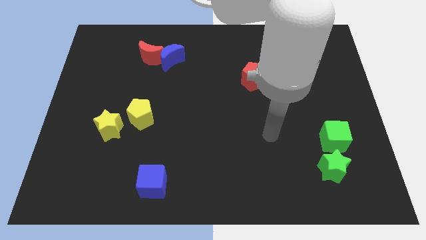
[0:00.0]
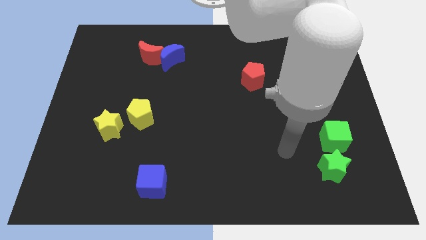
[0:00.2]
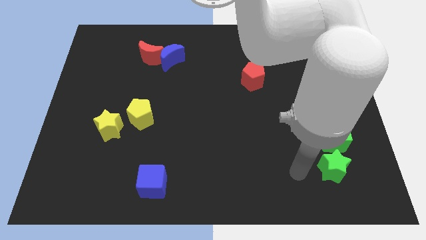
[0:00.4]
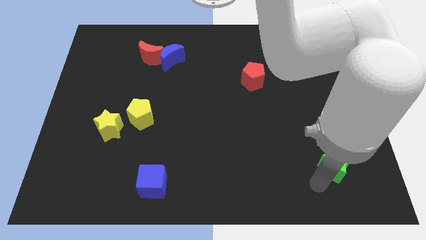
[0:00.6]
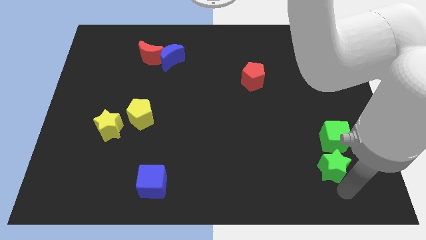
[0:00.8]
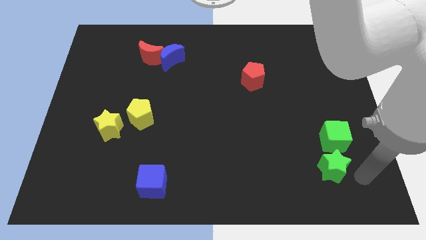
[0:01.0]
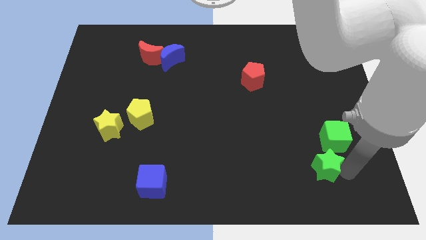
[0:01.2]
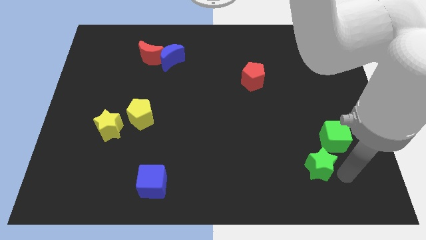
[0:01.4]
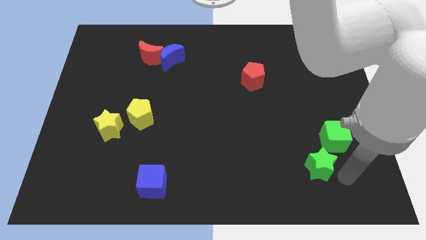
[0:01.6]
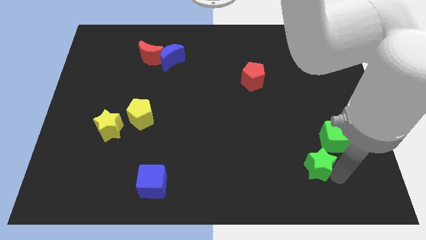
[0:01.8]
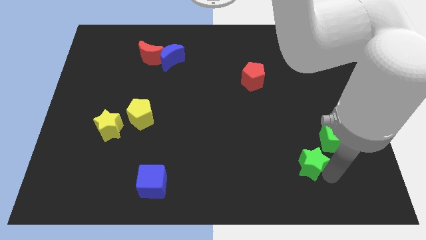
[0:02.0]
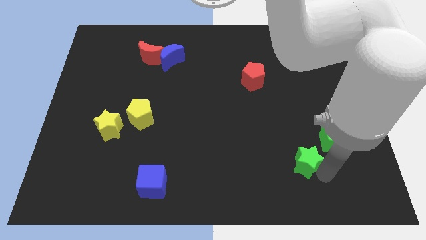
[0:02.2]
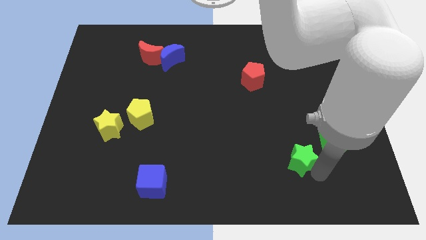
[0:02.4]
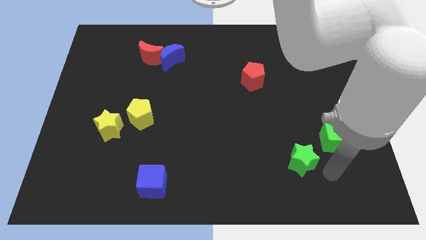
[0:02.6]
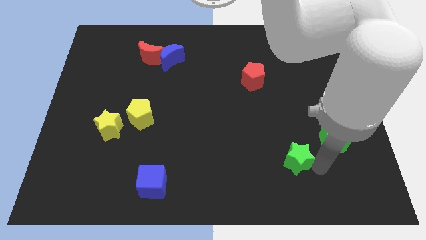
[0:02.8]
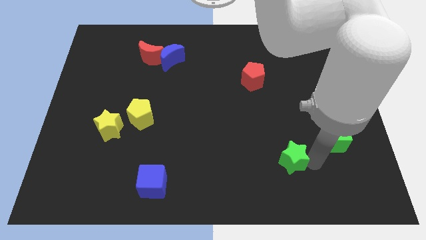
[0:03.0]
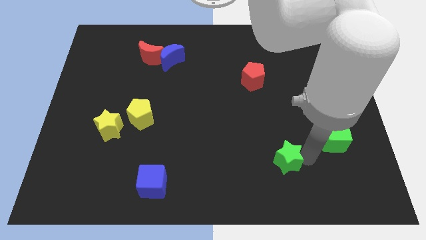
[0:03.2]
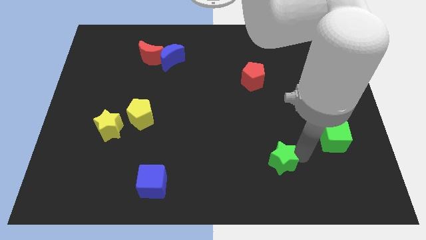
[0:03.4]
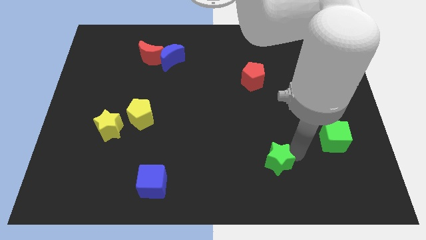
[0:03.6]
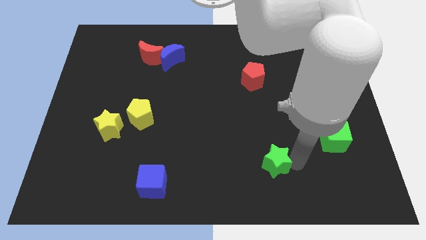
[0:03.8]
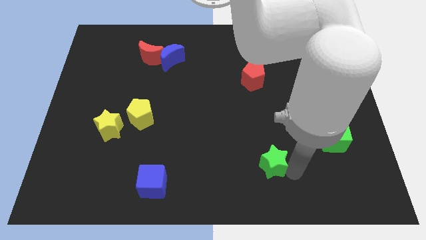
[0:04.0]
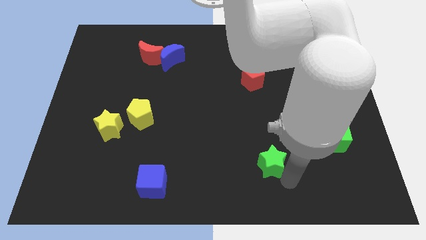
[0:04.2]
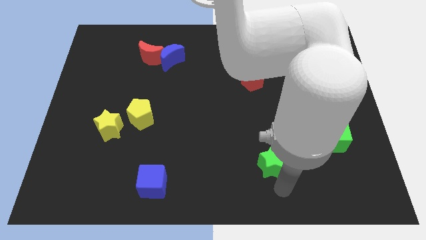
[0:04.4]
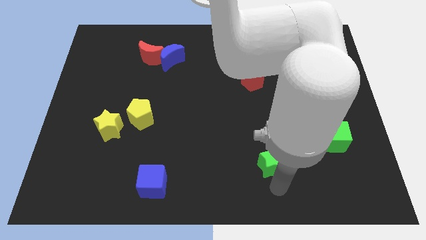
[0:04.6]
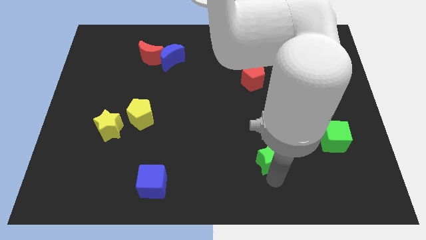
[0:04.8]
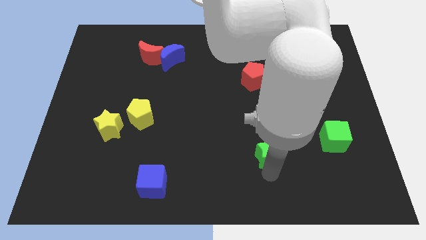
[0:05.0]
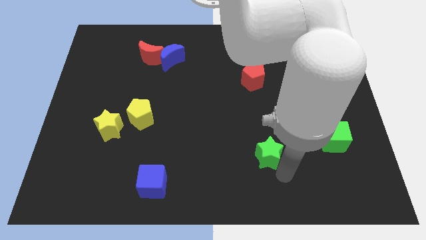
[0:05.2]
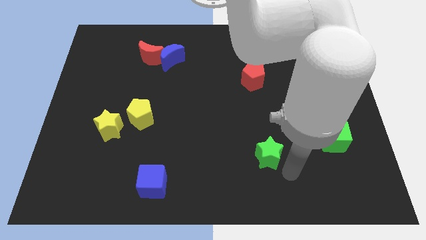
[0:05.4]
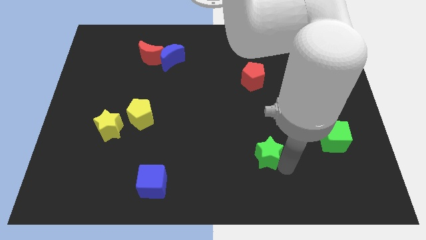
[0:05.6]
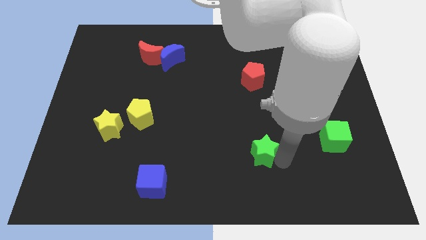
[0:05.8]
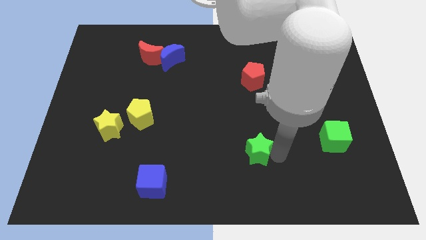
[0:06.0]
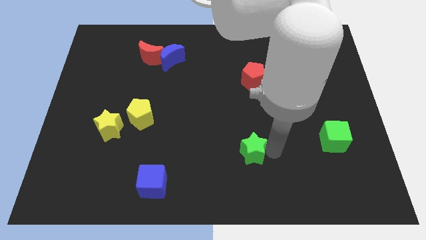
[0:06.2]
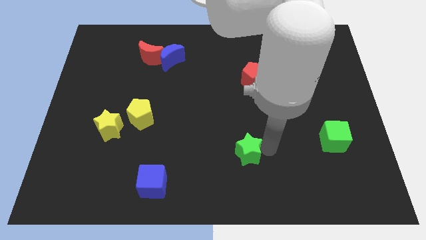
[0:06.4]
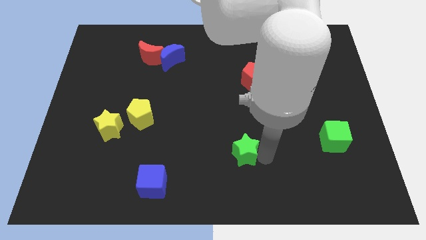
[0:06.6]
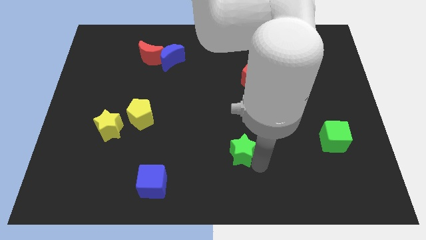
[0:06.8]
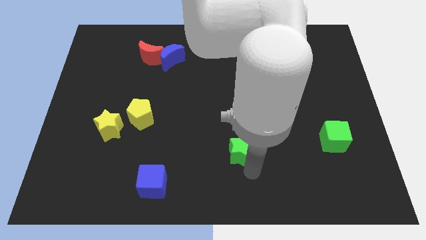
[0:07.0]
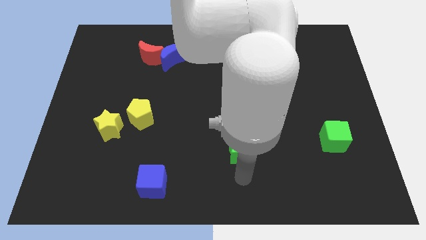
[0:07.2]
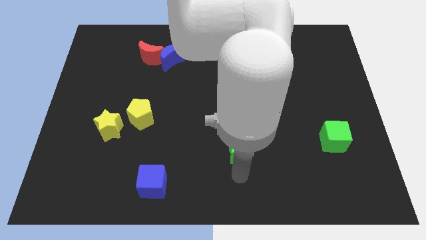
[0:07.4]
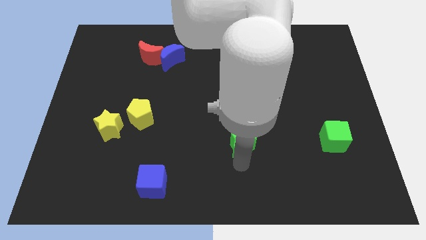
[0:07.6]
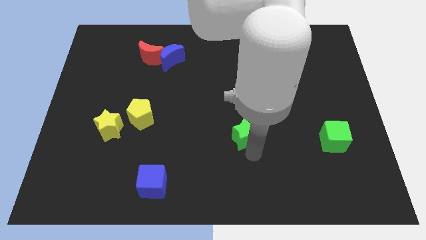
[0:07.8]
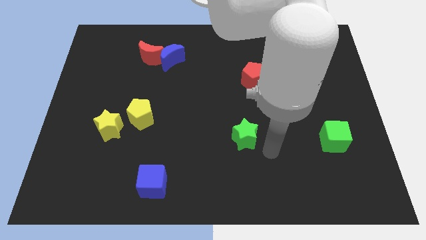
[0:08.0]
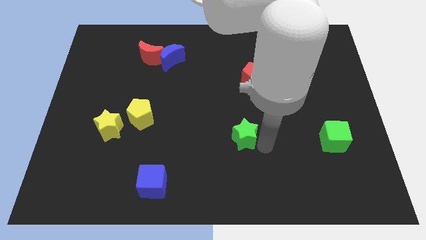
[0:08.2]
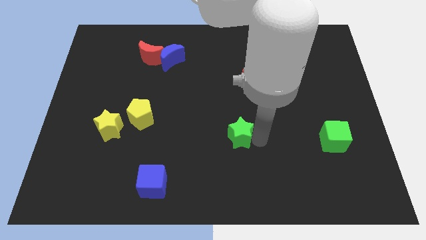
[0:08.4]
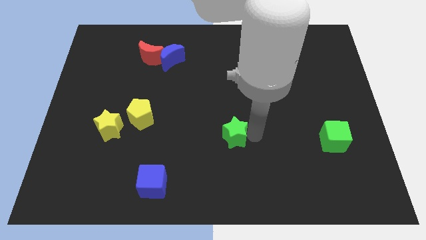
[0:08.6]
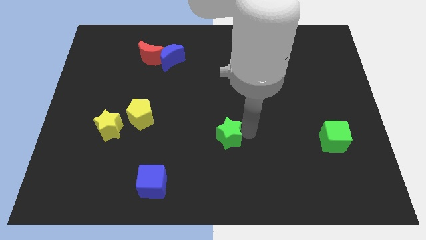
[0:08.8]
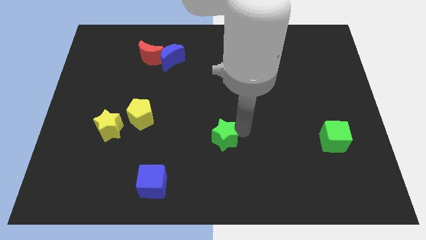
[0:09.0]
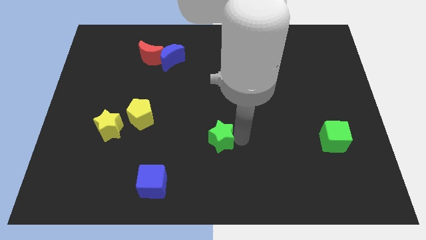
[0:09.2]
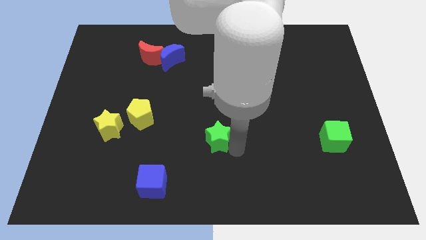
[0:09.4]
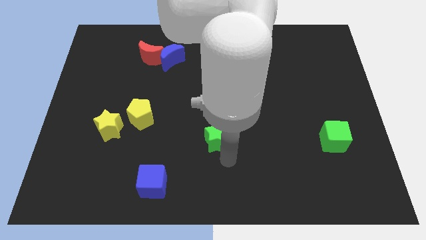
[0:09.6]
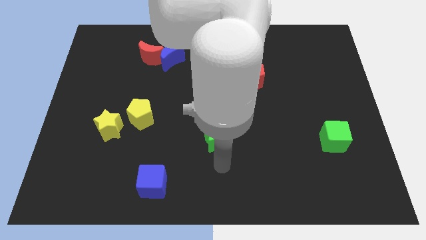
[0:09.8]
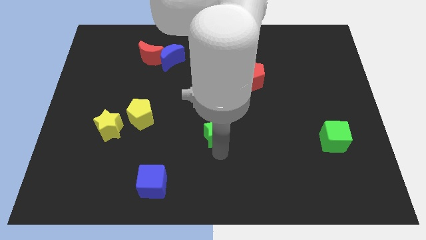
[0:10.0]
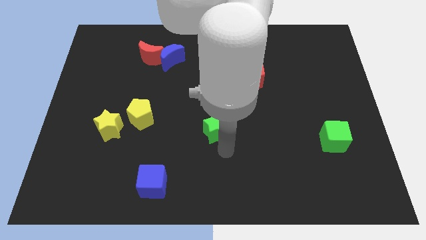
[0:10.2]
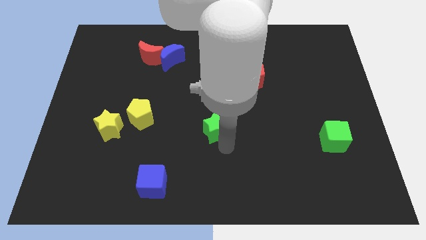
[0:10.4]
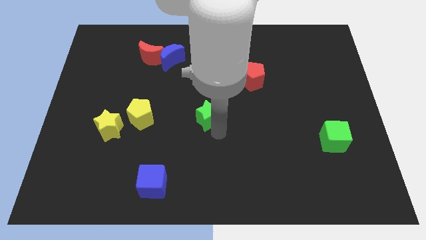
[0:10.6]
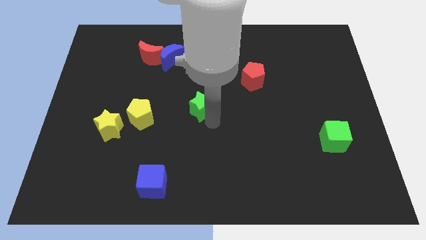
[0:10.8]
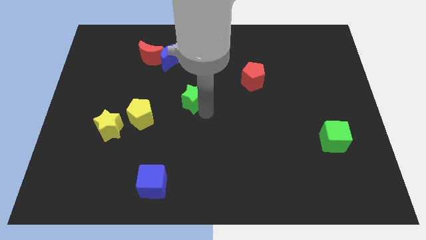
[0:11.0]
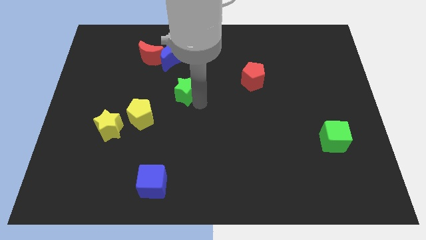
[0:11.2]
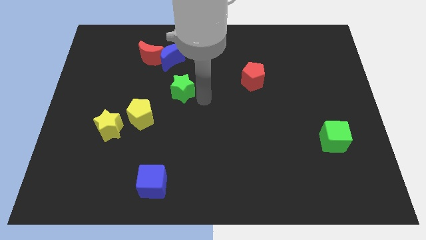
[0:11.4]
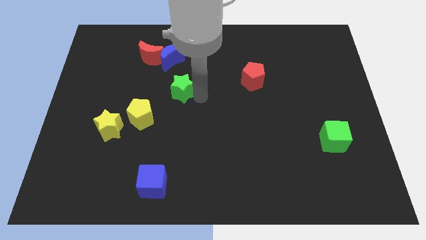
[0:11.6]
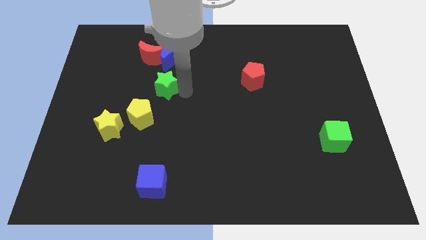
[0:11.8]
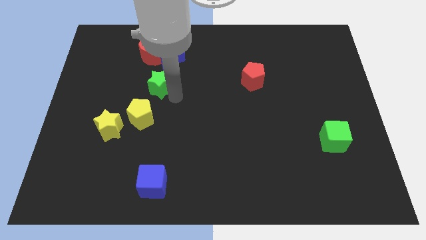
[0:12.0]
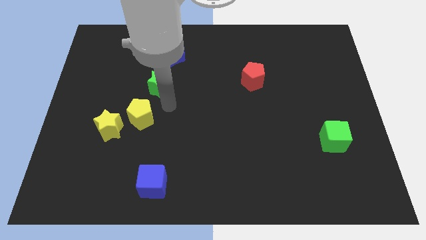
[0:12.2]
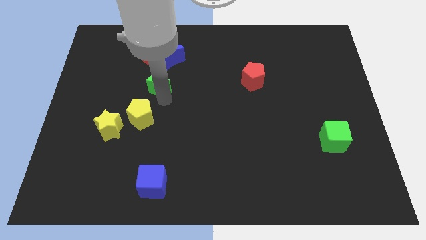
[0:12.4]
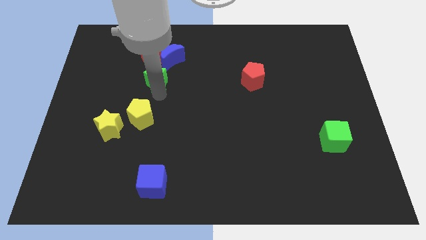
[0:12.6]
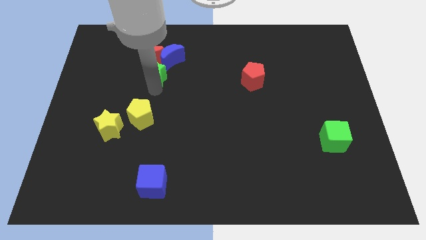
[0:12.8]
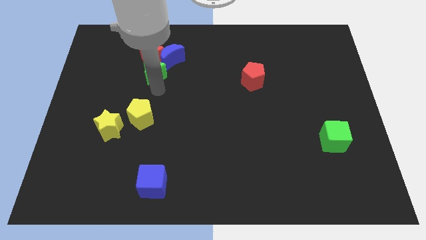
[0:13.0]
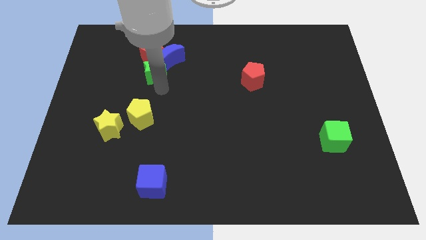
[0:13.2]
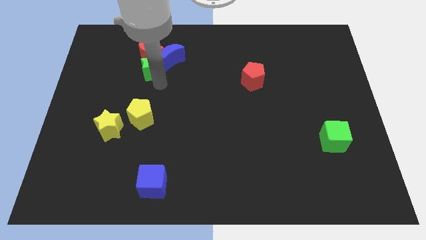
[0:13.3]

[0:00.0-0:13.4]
put the green star close to the red moon
